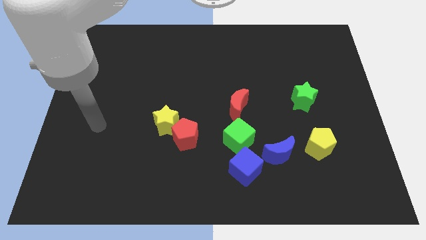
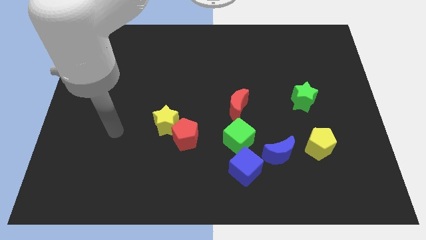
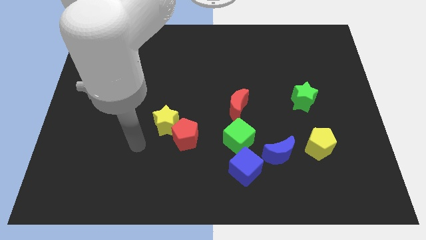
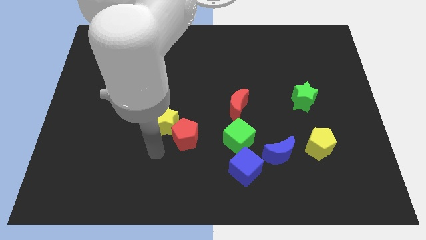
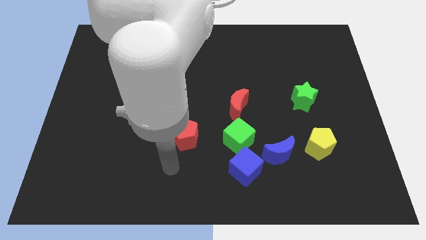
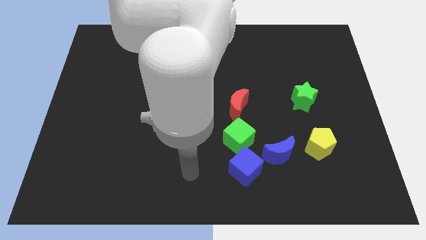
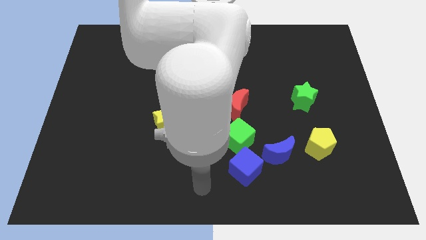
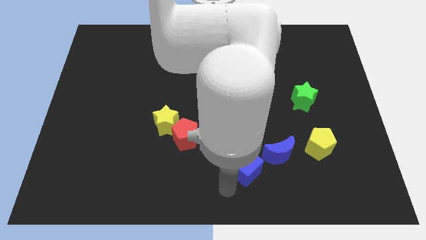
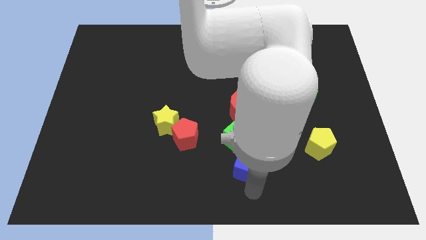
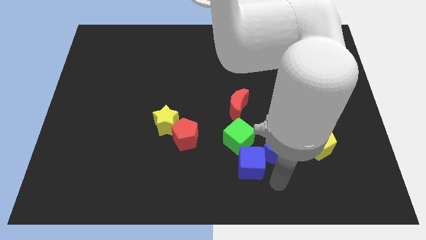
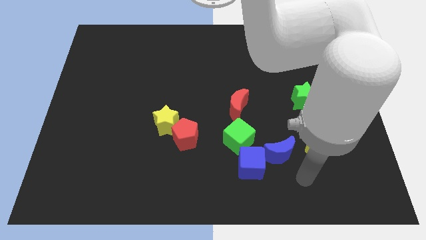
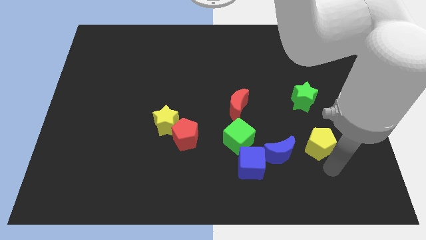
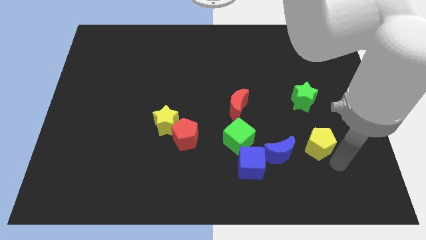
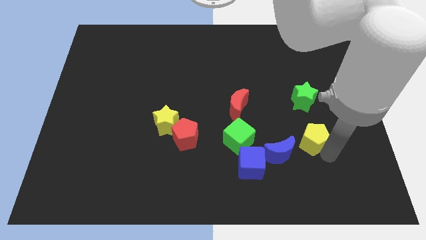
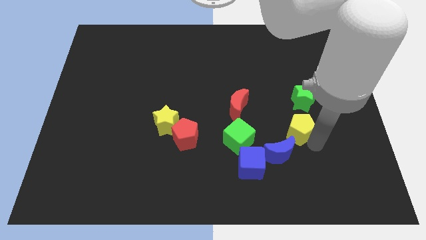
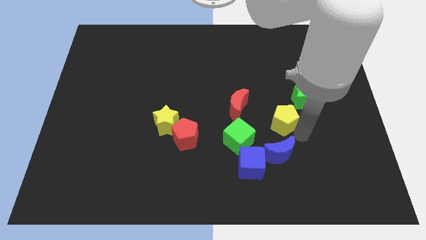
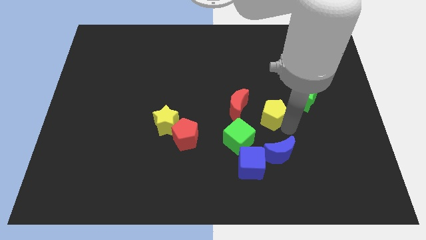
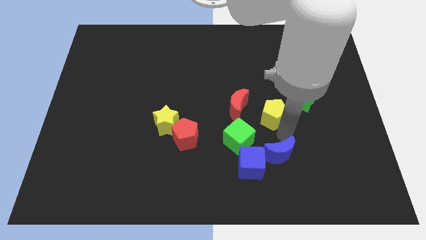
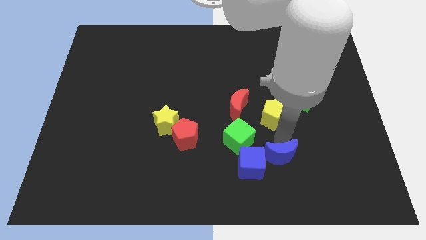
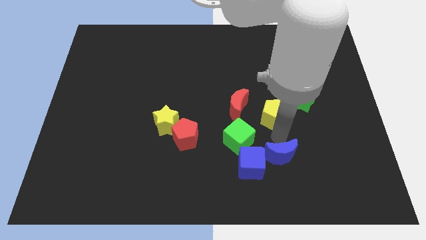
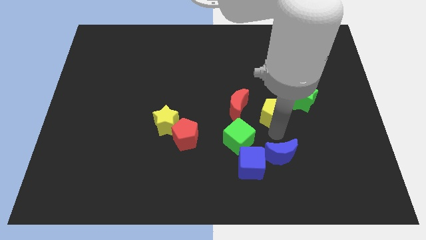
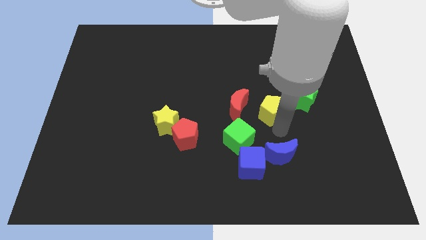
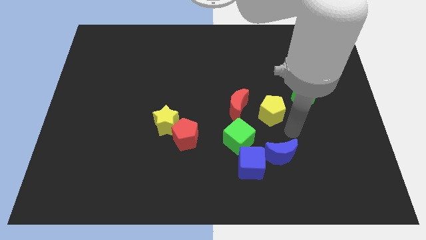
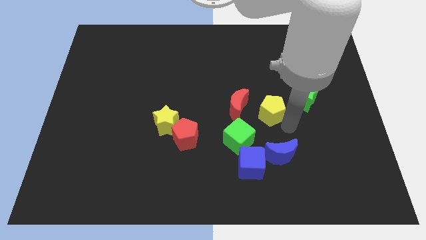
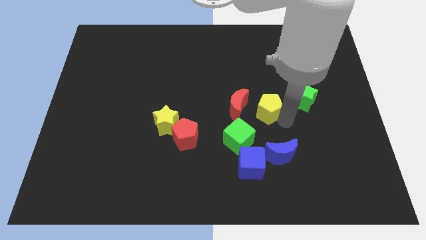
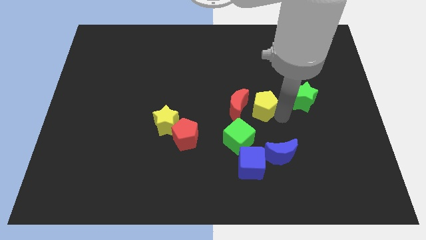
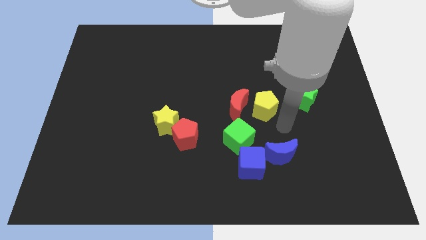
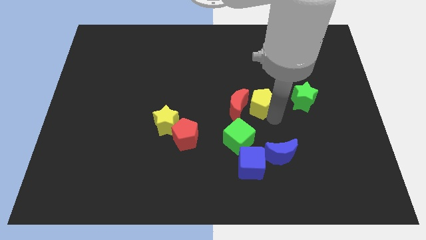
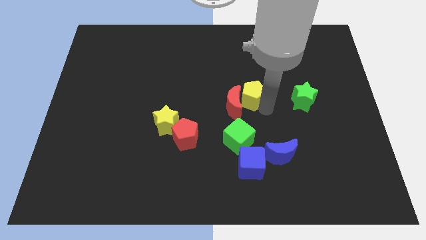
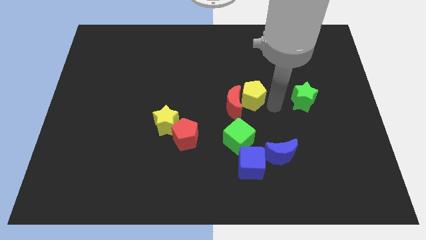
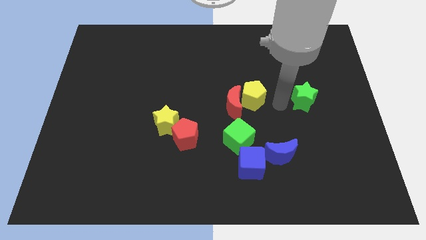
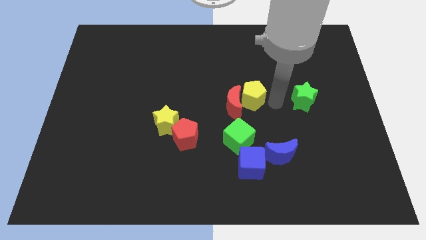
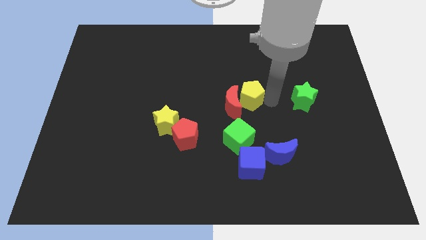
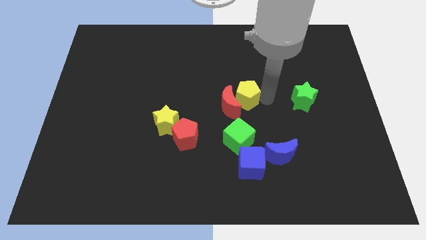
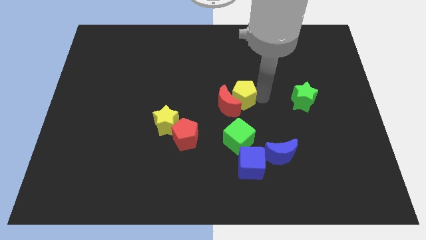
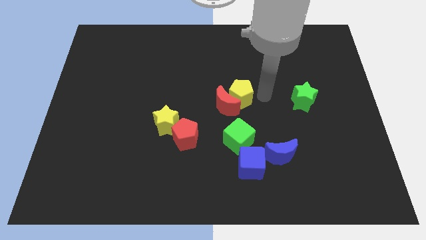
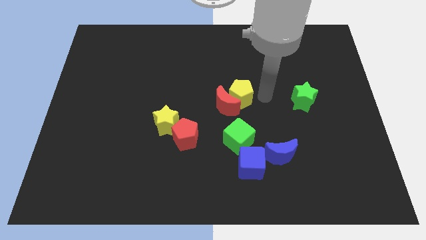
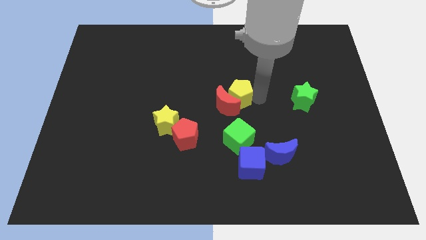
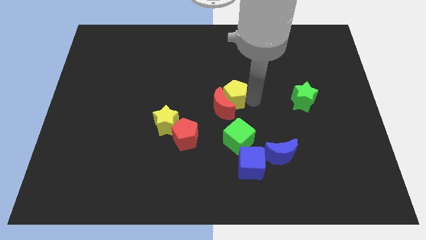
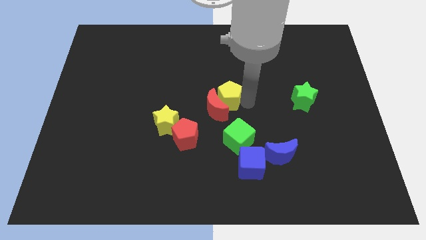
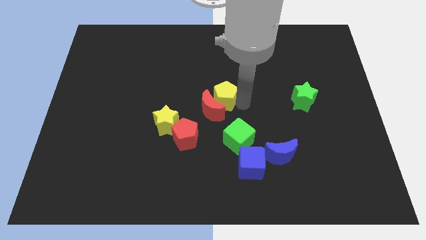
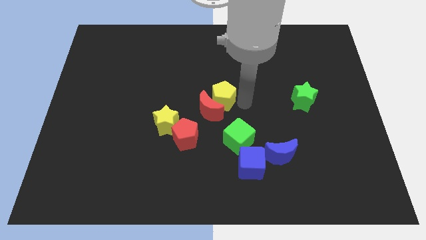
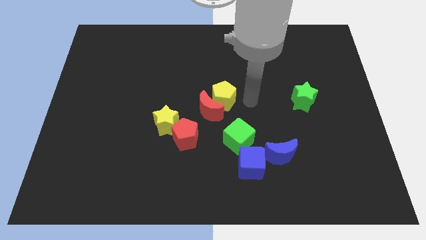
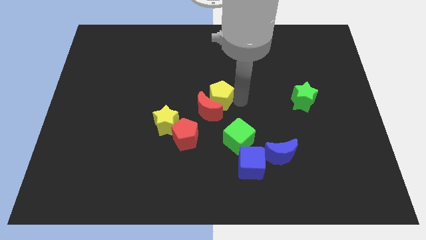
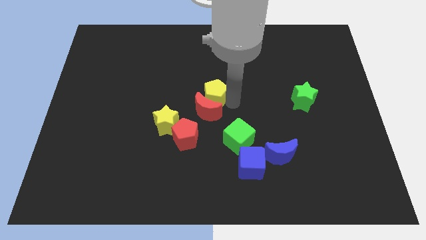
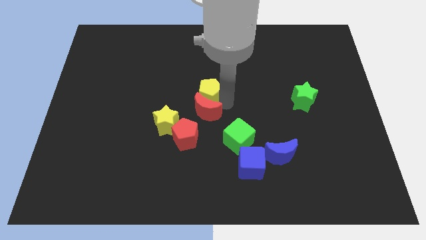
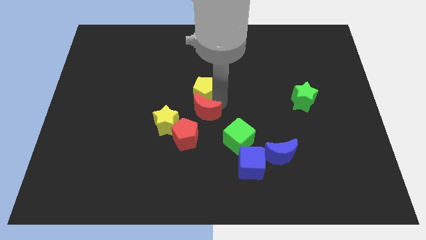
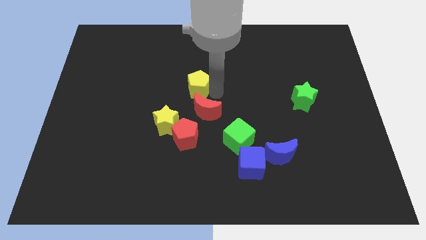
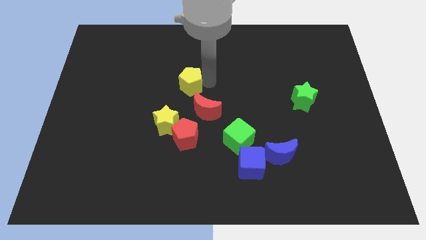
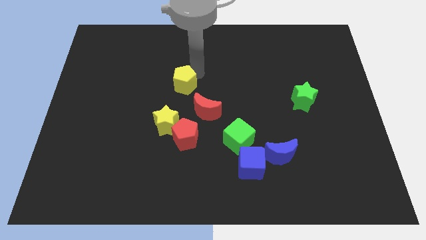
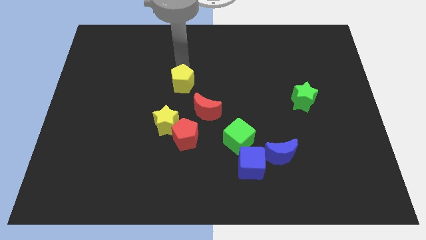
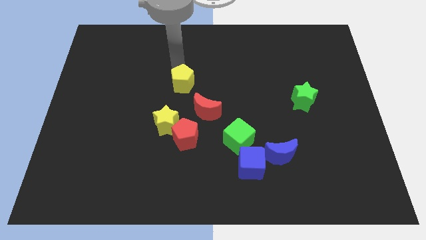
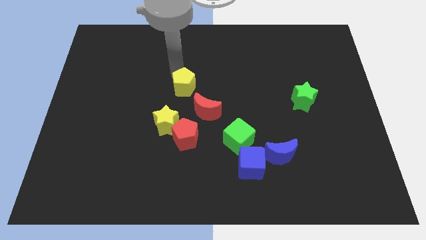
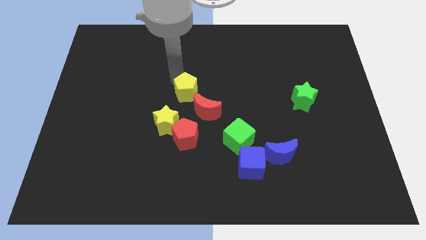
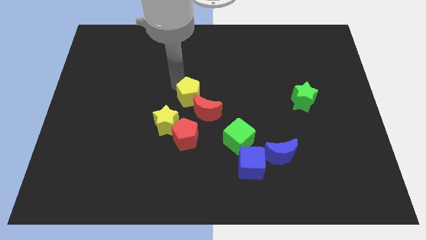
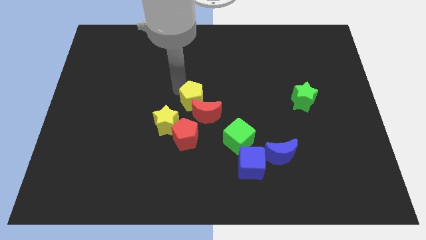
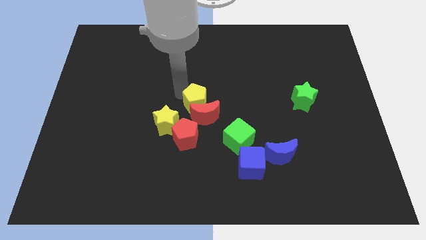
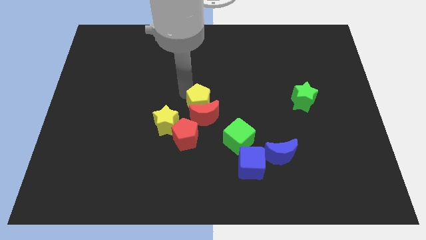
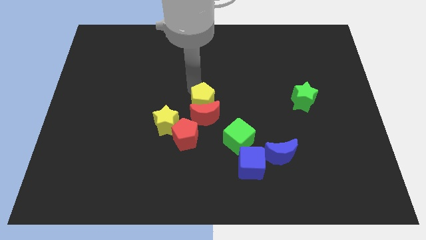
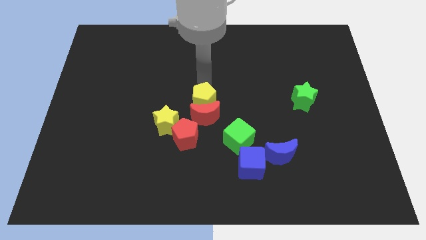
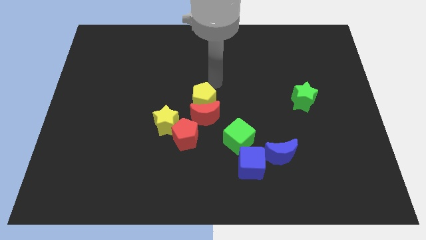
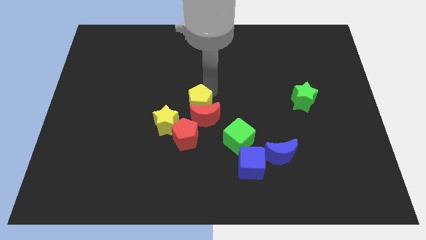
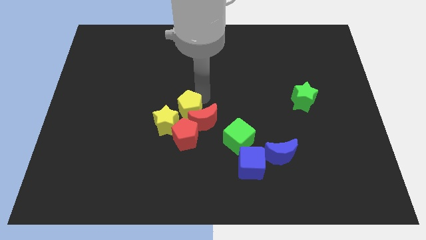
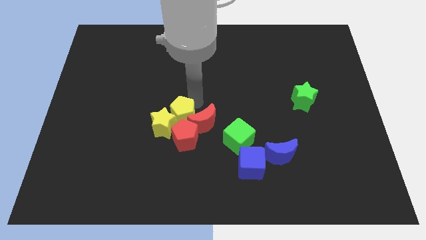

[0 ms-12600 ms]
move the yellow pentagon close to the red pentagon

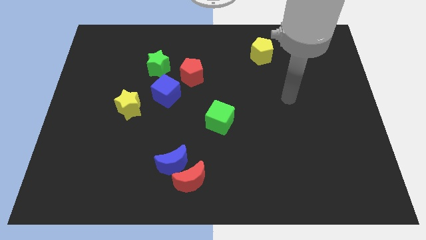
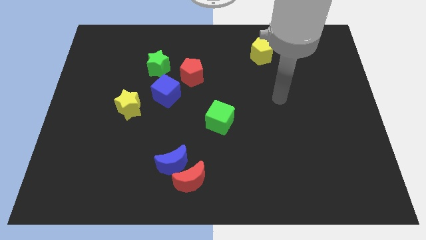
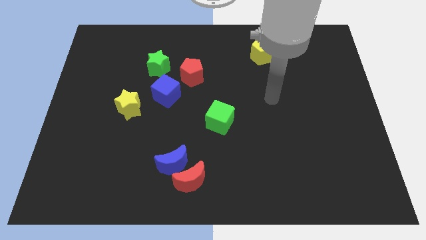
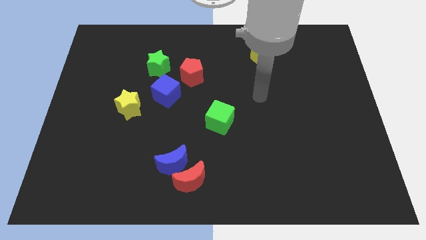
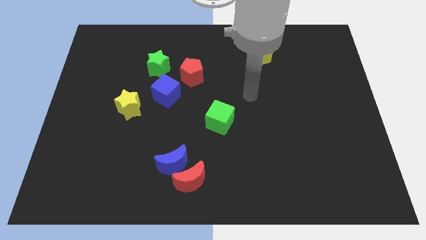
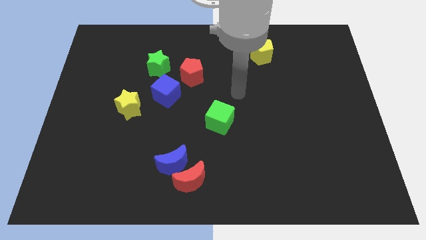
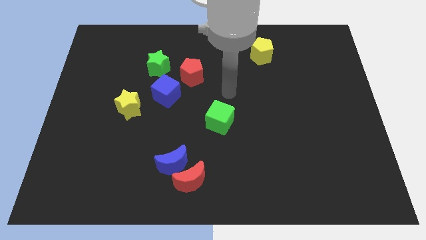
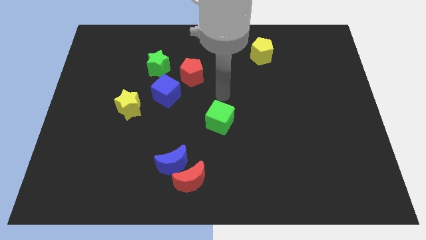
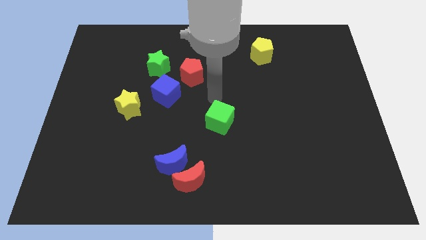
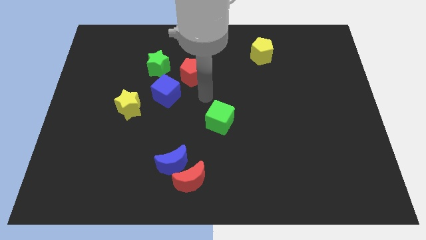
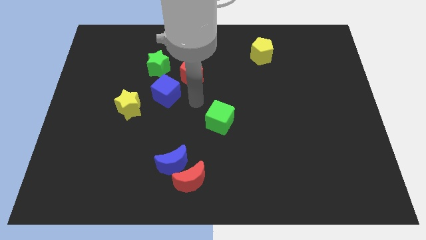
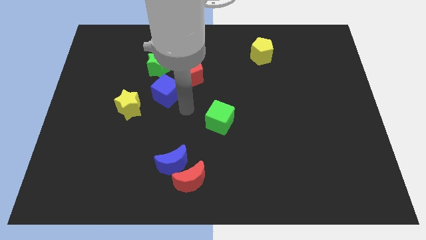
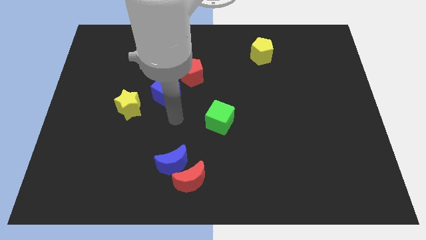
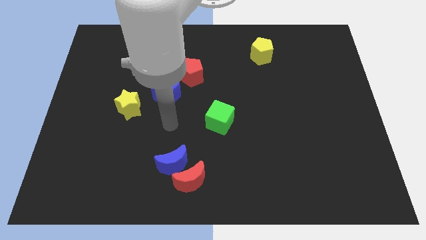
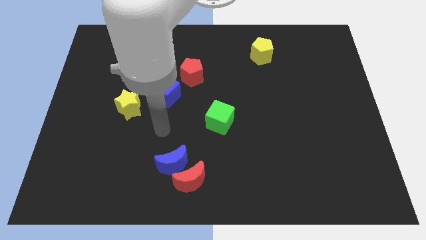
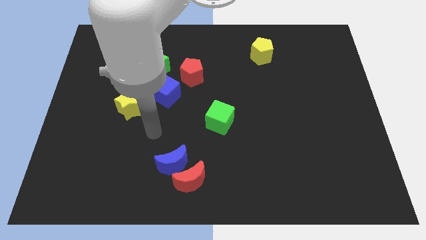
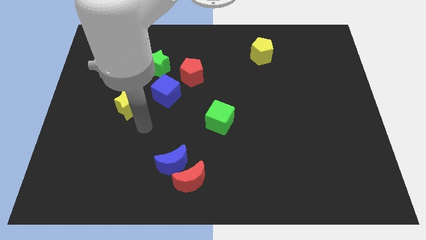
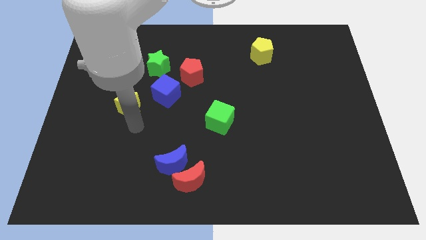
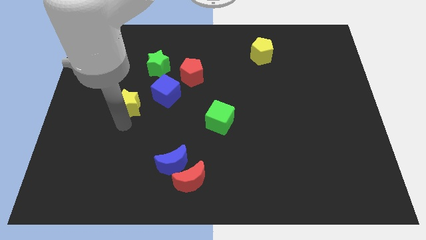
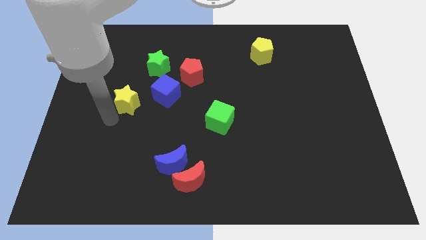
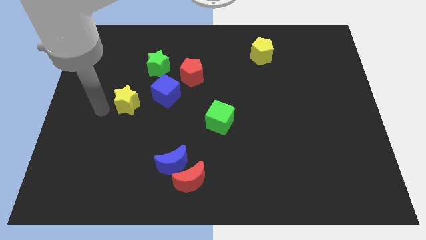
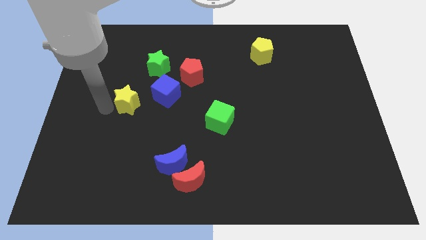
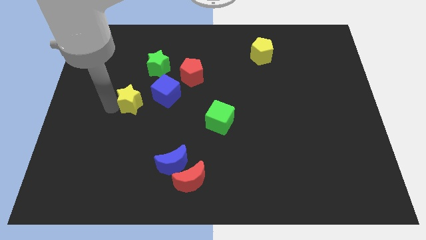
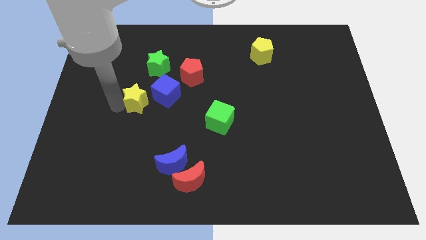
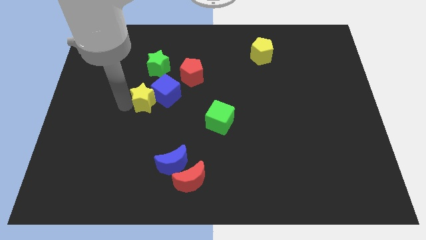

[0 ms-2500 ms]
move the yellow star close to the blue cube
